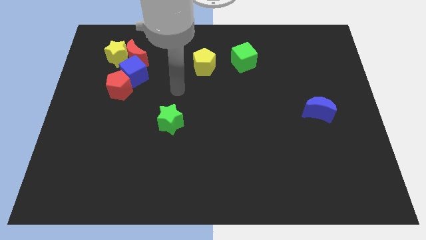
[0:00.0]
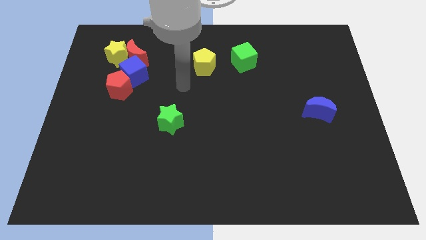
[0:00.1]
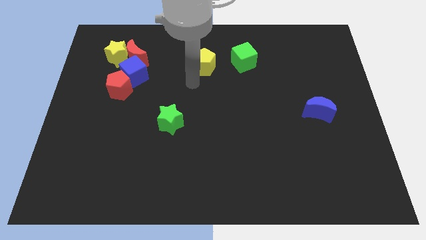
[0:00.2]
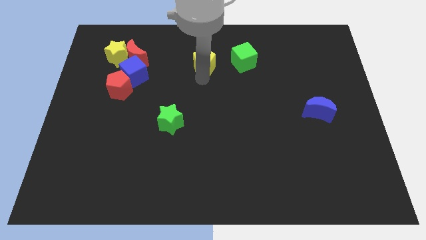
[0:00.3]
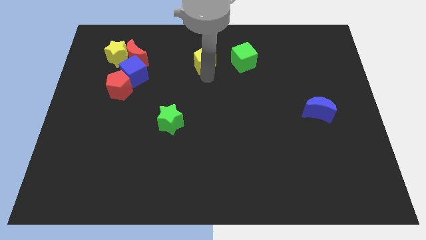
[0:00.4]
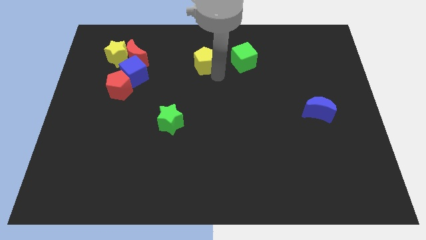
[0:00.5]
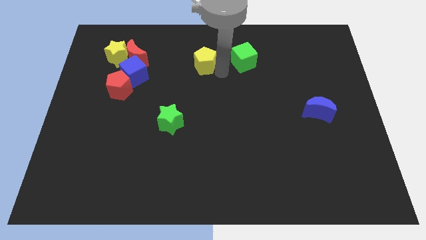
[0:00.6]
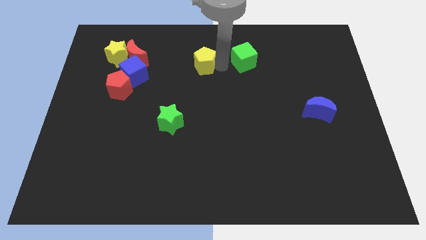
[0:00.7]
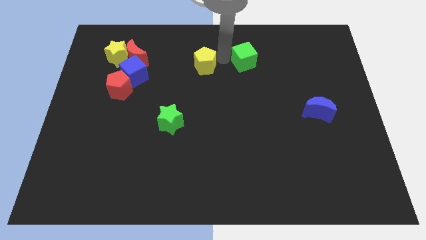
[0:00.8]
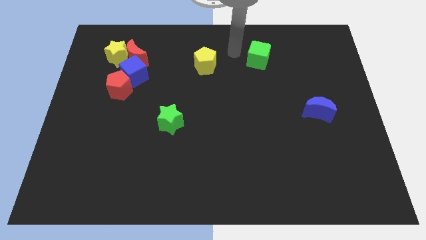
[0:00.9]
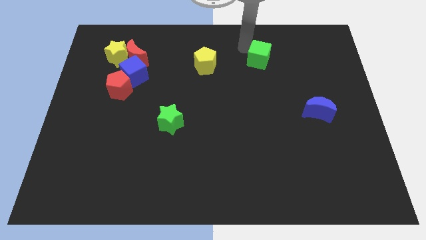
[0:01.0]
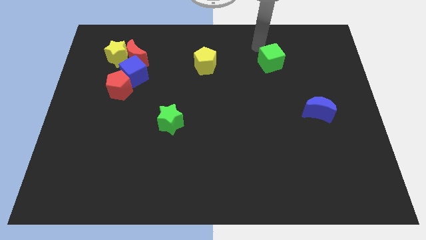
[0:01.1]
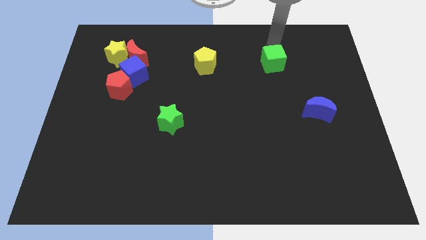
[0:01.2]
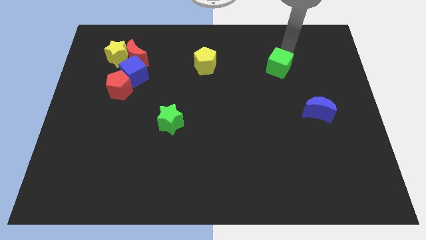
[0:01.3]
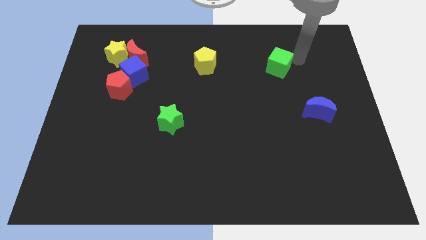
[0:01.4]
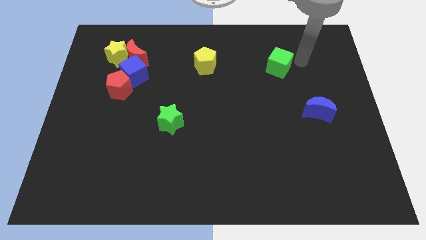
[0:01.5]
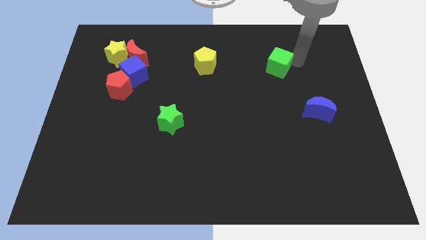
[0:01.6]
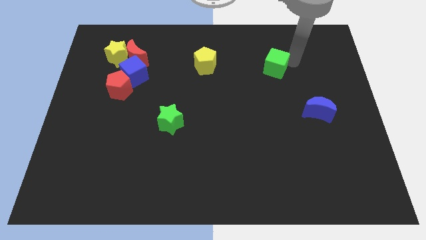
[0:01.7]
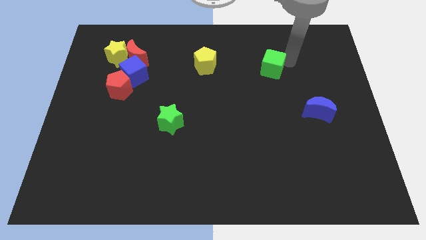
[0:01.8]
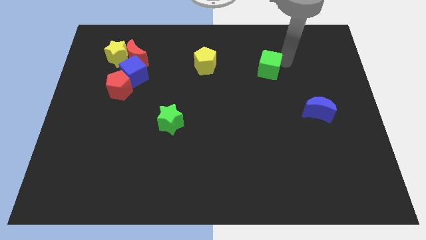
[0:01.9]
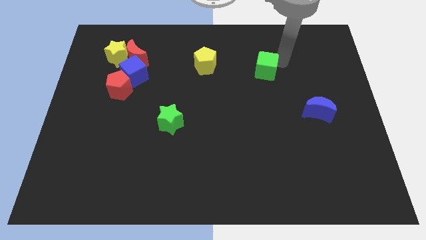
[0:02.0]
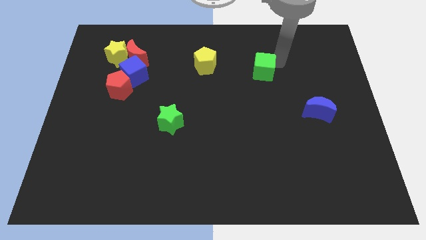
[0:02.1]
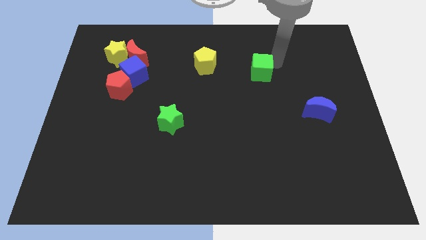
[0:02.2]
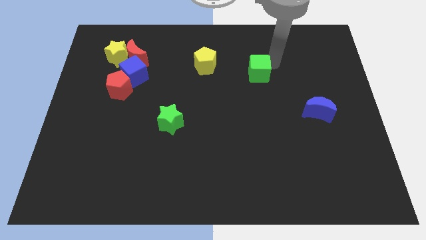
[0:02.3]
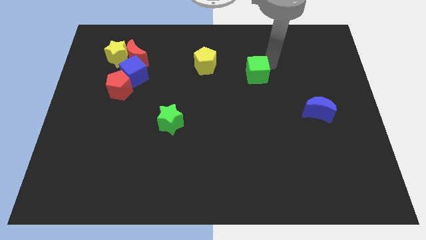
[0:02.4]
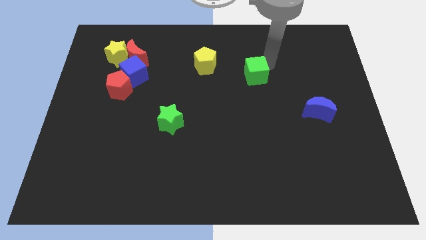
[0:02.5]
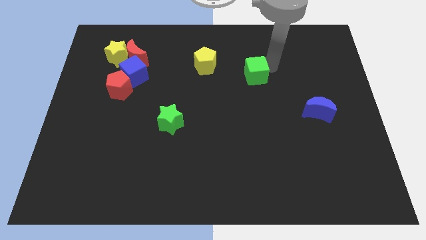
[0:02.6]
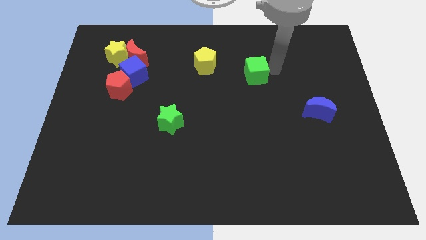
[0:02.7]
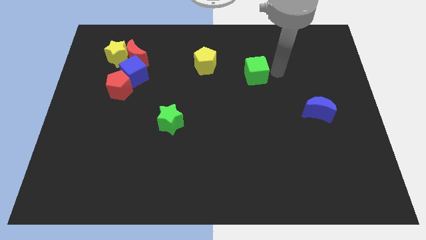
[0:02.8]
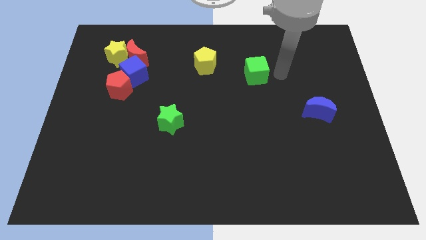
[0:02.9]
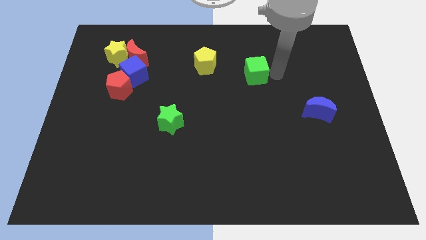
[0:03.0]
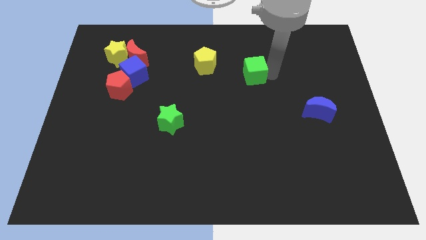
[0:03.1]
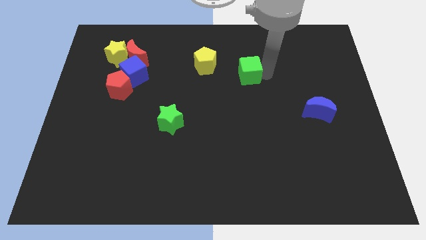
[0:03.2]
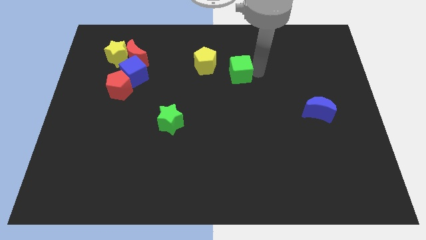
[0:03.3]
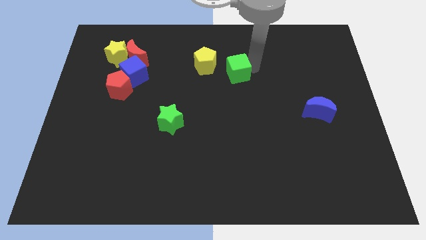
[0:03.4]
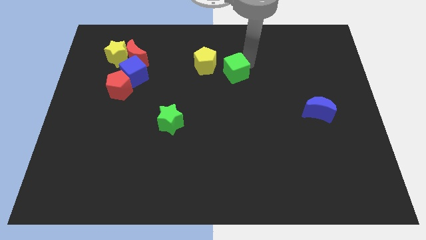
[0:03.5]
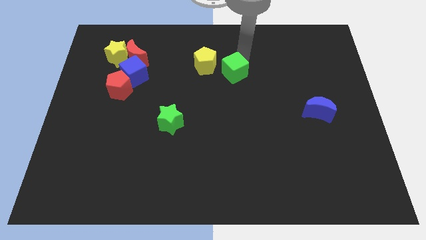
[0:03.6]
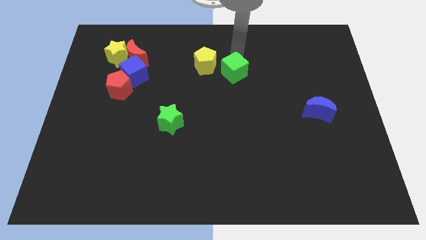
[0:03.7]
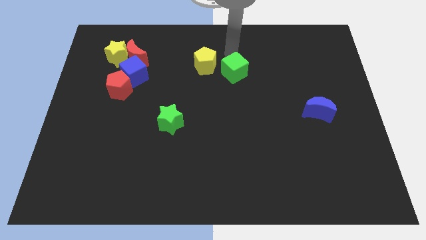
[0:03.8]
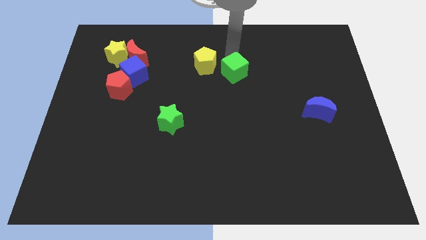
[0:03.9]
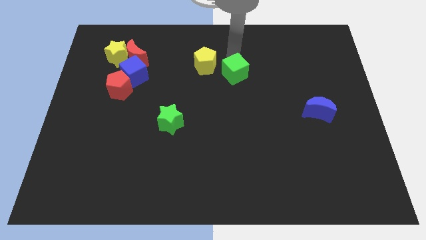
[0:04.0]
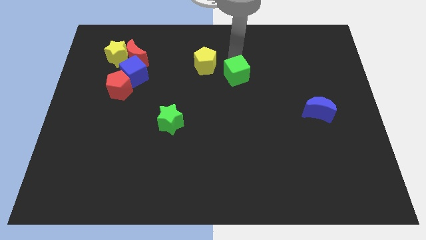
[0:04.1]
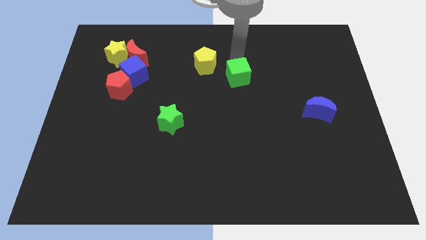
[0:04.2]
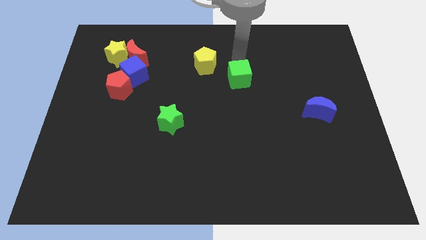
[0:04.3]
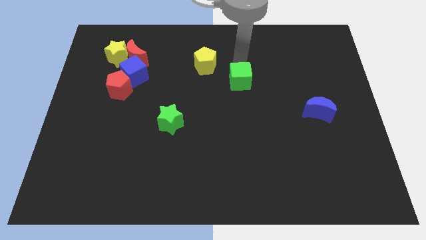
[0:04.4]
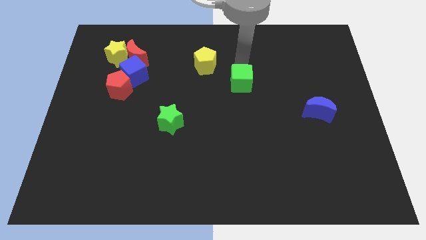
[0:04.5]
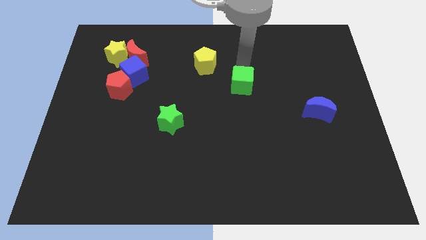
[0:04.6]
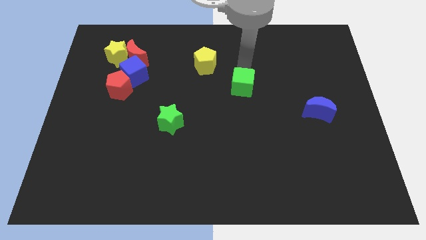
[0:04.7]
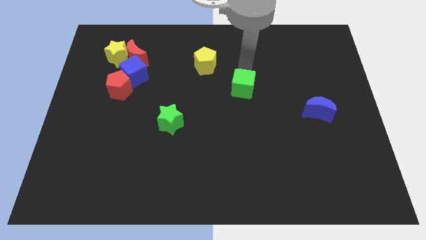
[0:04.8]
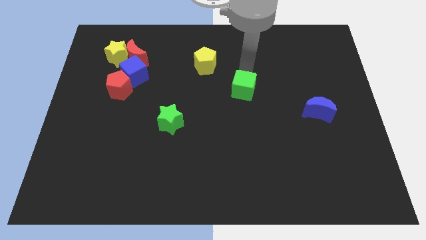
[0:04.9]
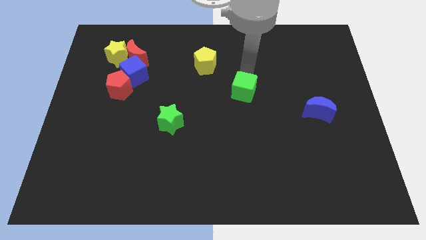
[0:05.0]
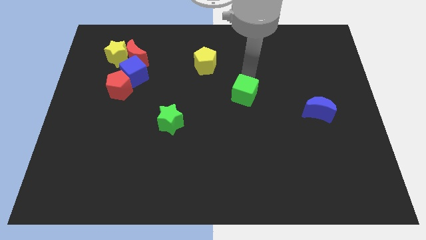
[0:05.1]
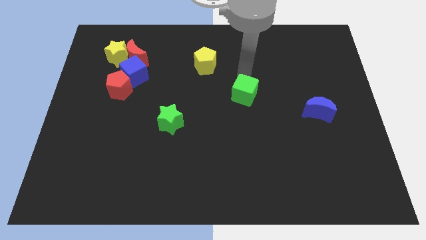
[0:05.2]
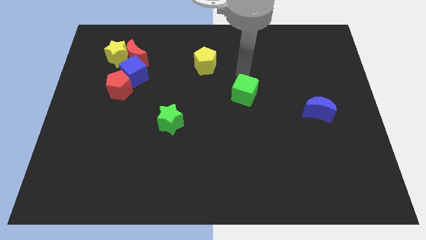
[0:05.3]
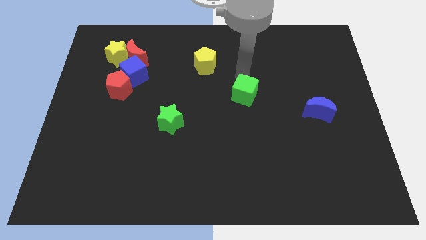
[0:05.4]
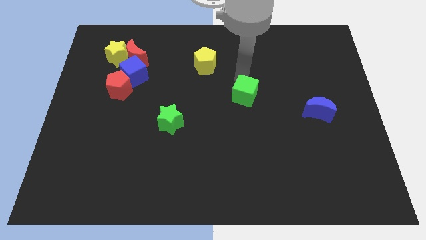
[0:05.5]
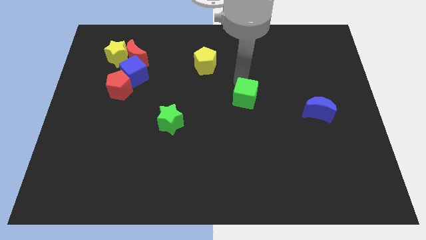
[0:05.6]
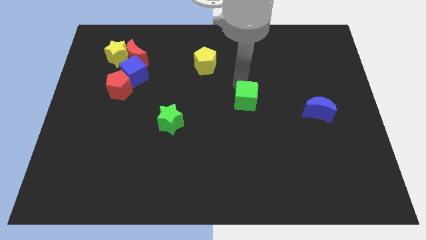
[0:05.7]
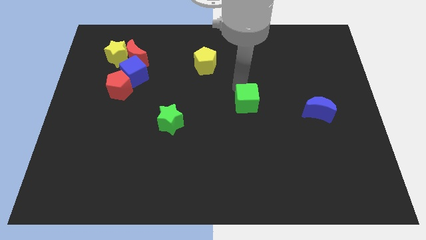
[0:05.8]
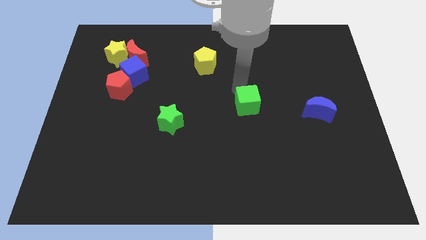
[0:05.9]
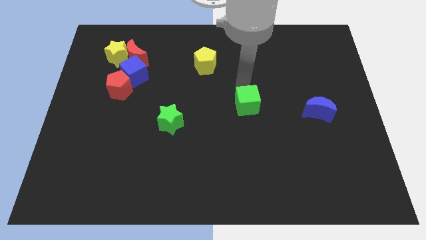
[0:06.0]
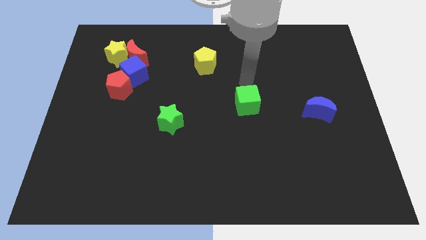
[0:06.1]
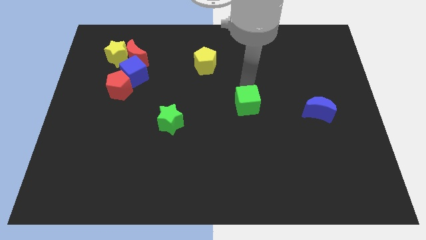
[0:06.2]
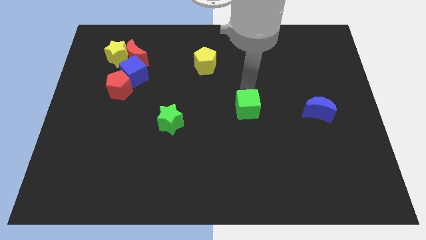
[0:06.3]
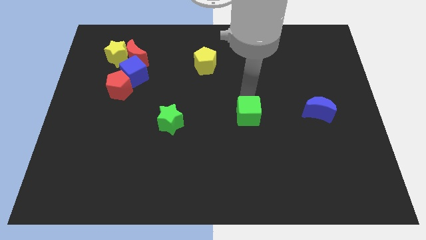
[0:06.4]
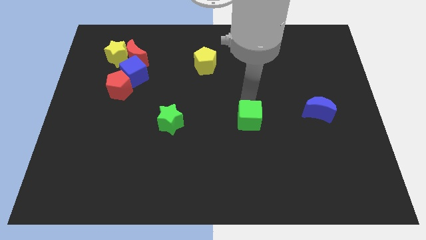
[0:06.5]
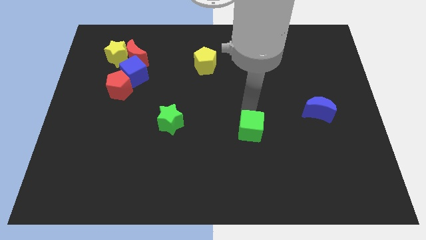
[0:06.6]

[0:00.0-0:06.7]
move the green cube downwards

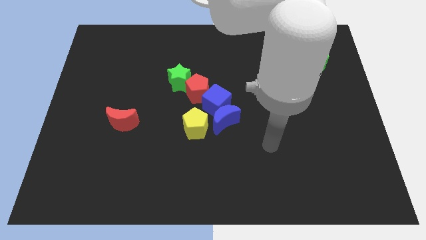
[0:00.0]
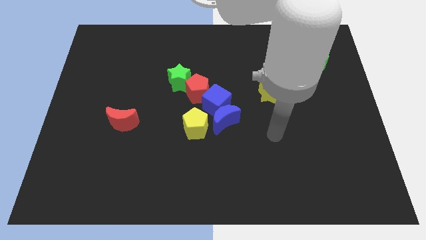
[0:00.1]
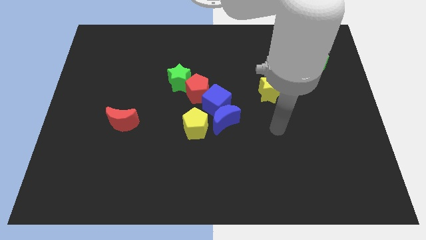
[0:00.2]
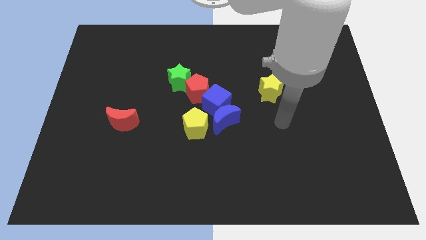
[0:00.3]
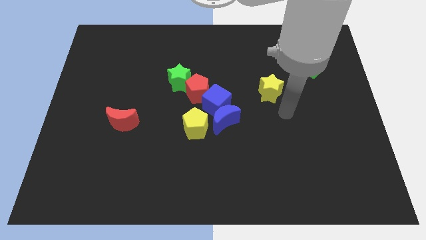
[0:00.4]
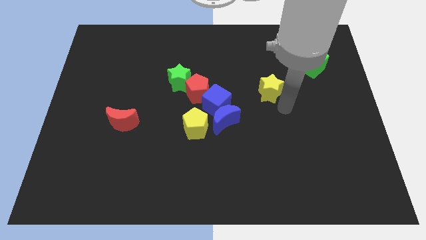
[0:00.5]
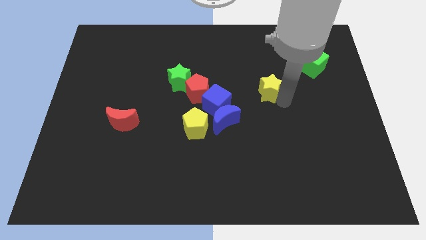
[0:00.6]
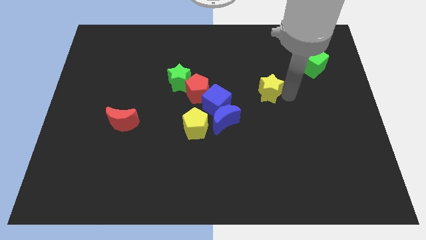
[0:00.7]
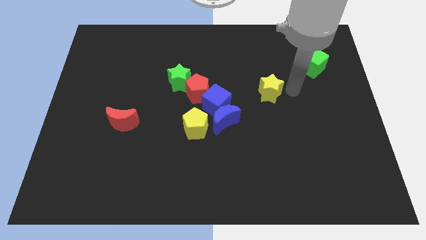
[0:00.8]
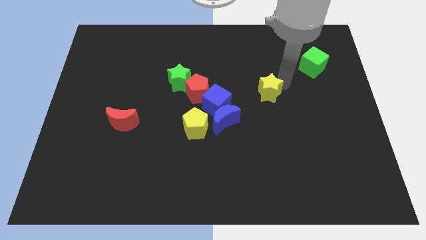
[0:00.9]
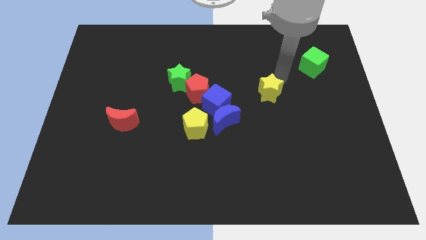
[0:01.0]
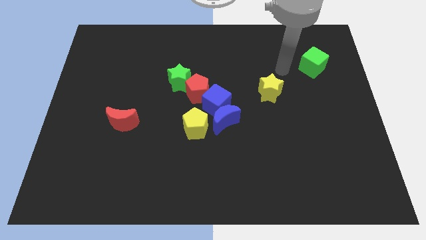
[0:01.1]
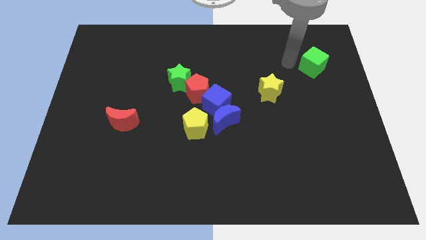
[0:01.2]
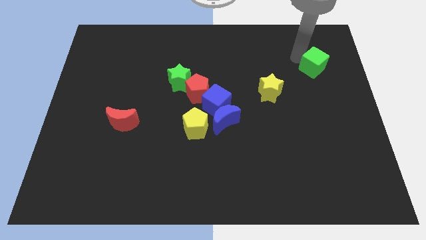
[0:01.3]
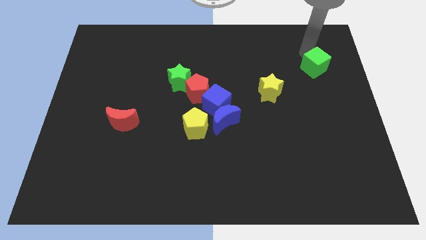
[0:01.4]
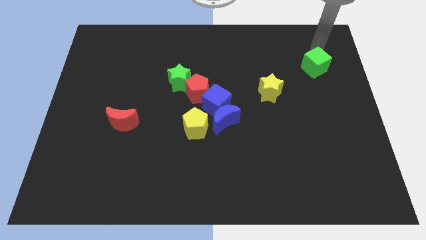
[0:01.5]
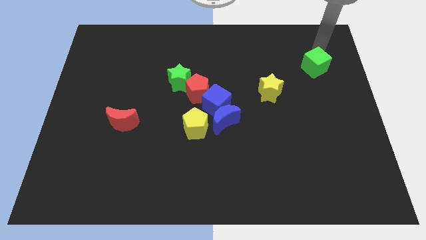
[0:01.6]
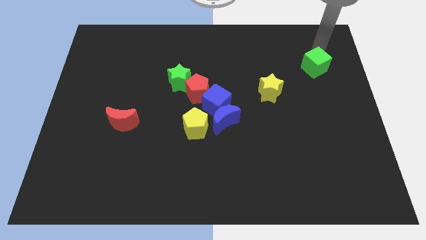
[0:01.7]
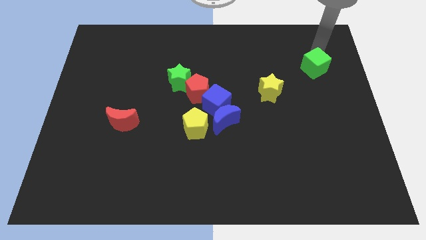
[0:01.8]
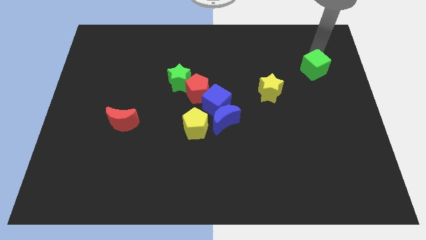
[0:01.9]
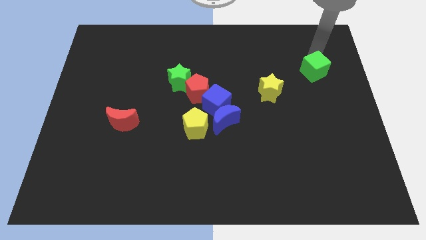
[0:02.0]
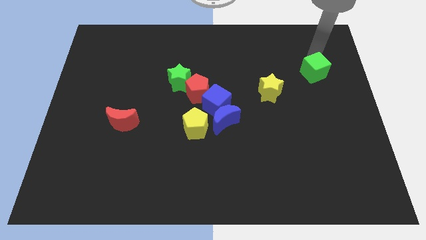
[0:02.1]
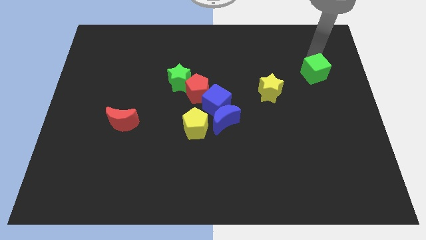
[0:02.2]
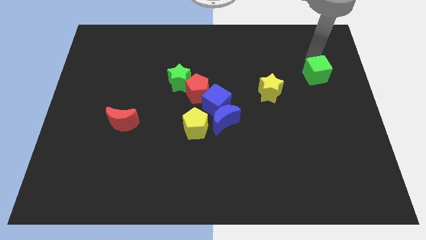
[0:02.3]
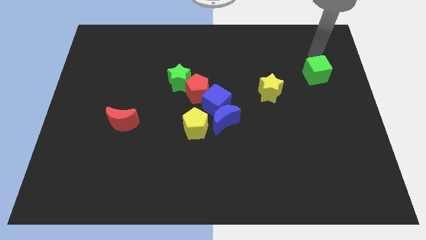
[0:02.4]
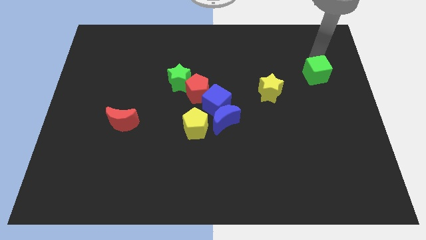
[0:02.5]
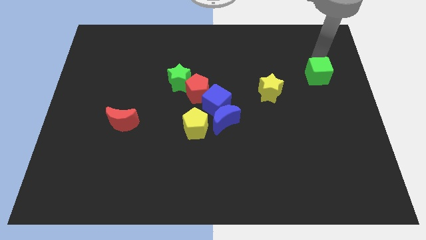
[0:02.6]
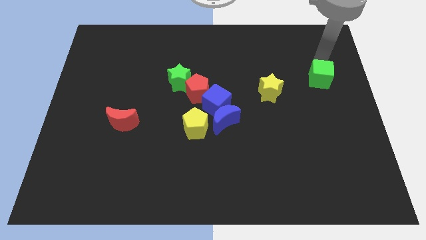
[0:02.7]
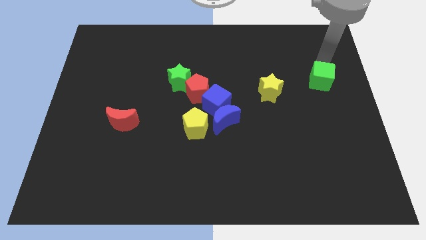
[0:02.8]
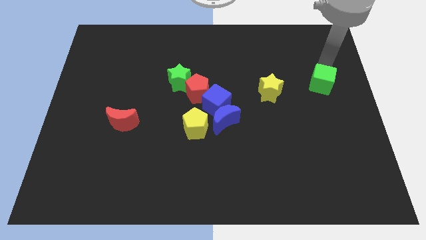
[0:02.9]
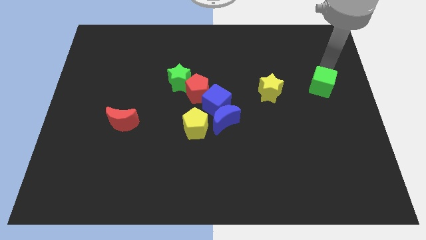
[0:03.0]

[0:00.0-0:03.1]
slightly slide the green cube downwards
